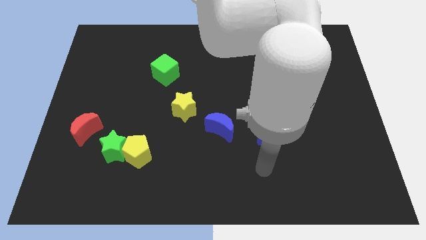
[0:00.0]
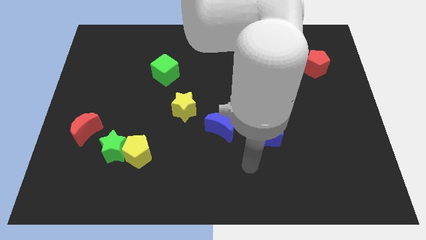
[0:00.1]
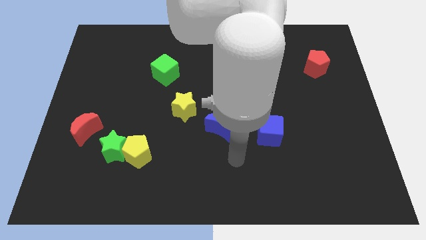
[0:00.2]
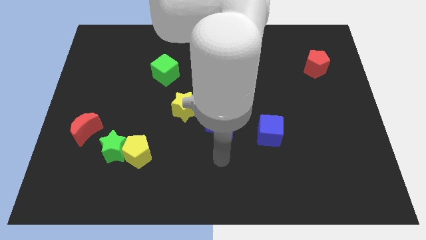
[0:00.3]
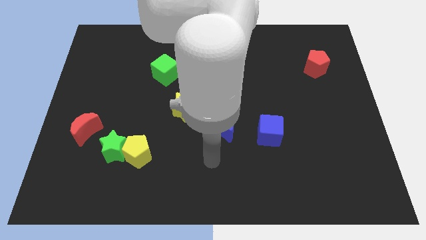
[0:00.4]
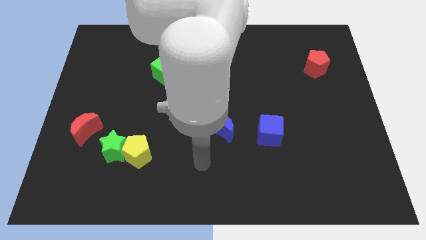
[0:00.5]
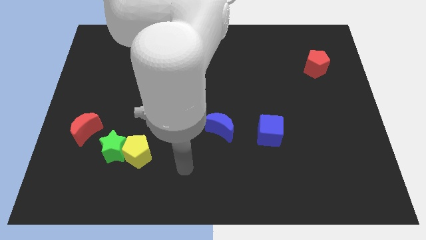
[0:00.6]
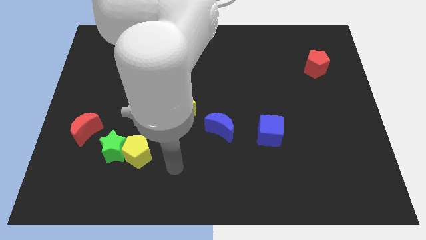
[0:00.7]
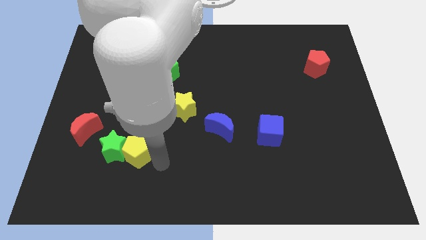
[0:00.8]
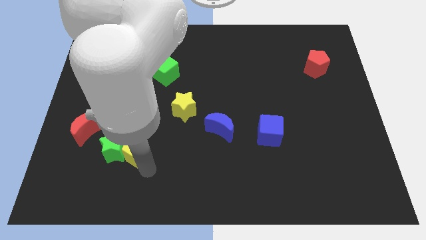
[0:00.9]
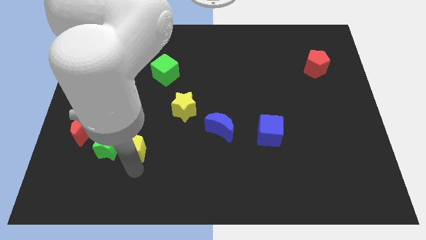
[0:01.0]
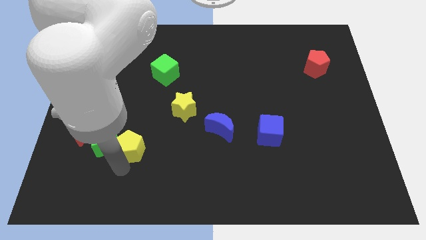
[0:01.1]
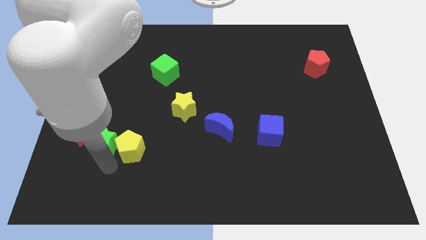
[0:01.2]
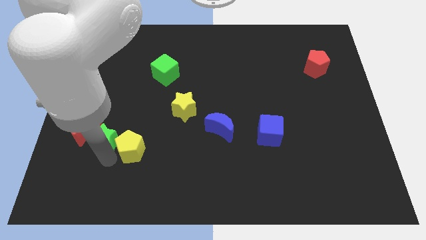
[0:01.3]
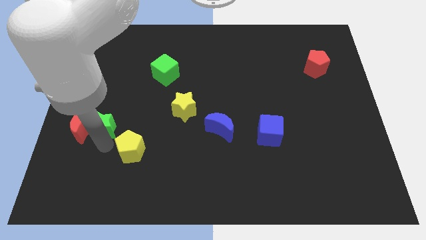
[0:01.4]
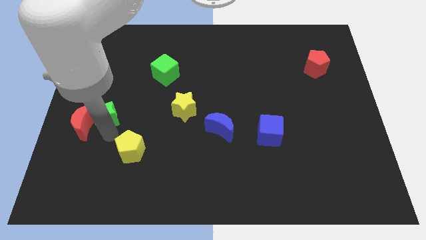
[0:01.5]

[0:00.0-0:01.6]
separate the yellow pentagon from the green star

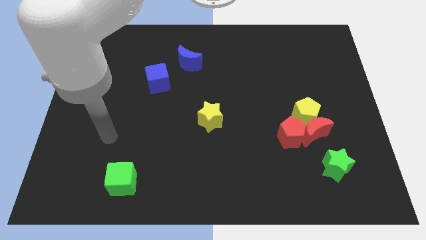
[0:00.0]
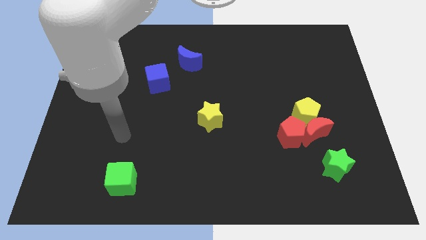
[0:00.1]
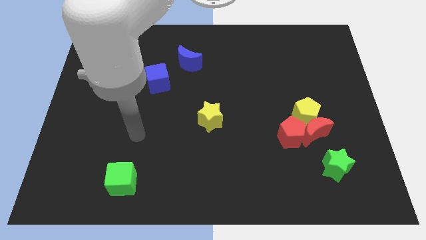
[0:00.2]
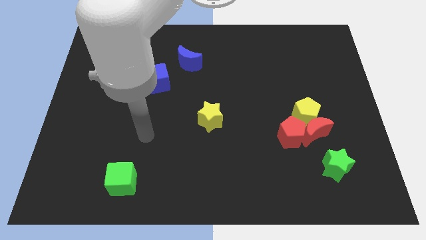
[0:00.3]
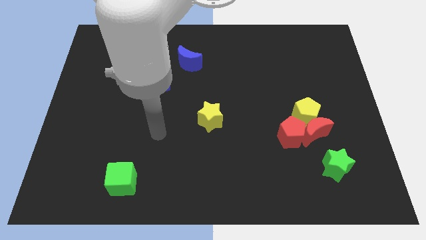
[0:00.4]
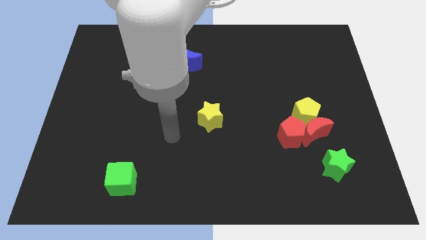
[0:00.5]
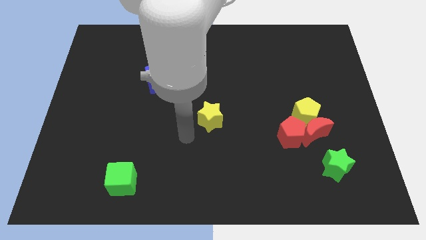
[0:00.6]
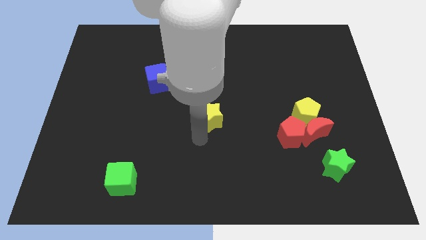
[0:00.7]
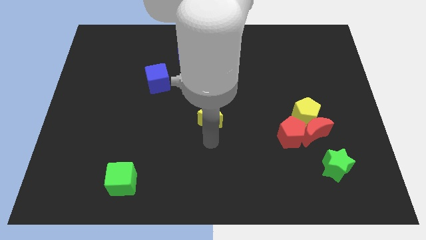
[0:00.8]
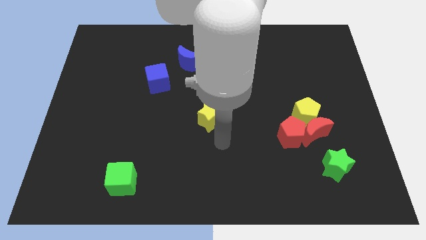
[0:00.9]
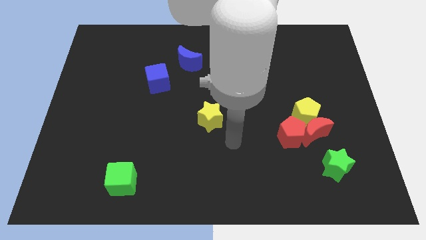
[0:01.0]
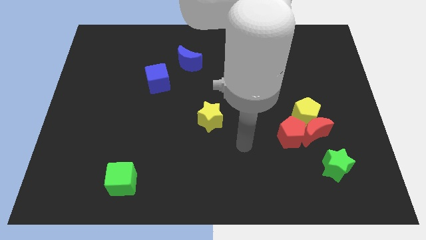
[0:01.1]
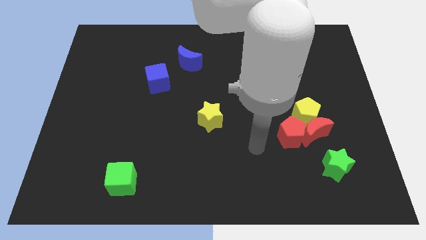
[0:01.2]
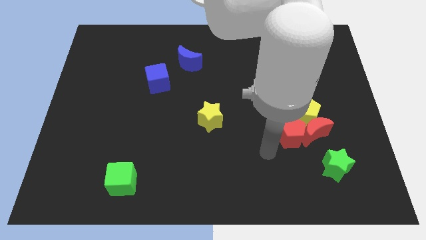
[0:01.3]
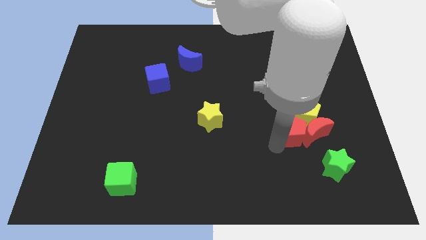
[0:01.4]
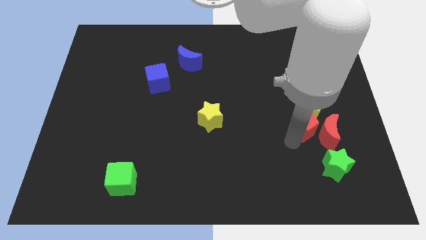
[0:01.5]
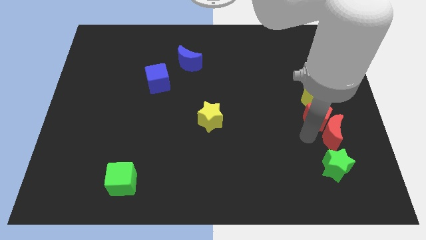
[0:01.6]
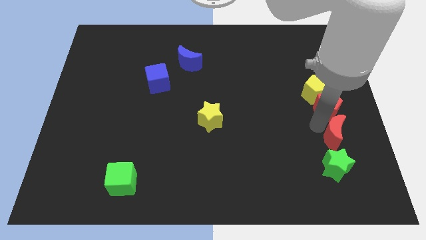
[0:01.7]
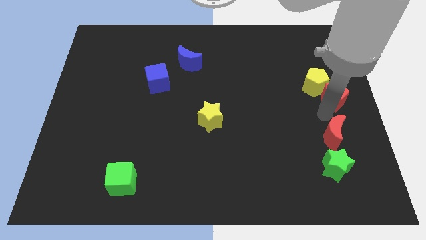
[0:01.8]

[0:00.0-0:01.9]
move the yellow pentagon away from the red moon and red pentagon

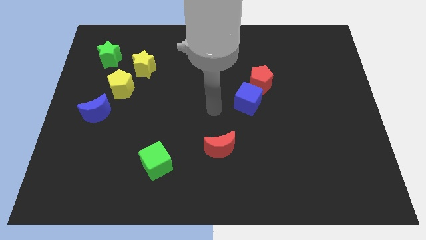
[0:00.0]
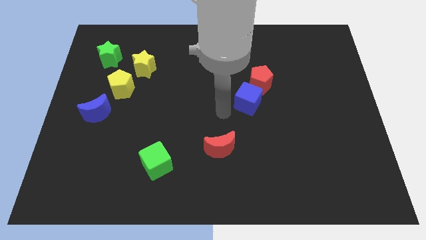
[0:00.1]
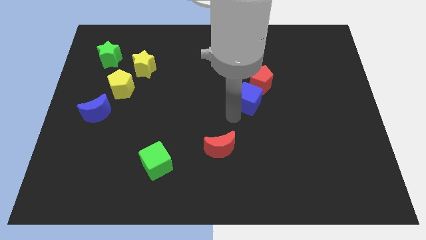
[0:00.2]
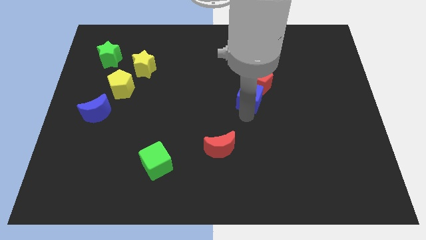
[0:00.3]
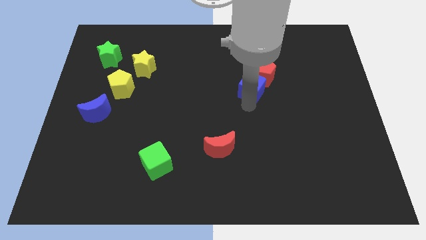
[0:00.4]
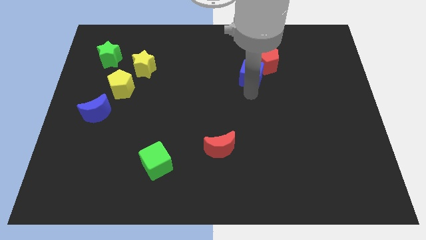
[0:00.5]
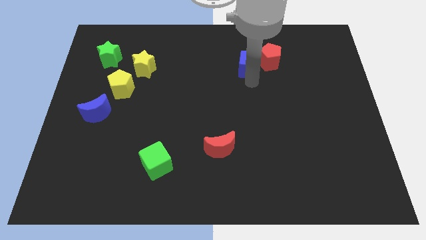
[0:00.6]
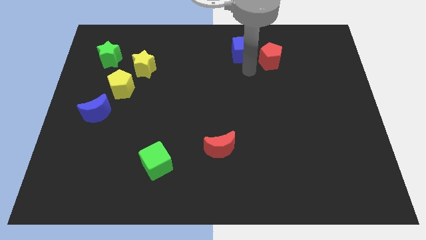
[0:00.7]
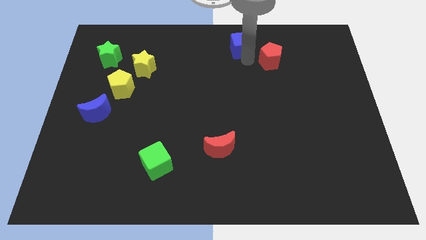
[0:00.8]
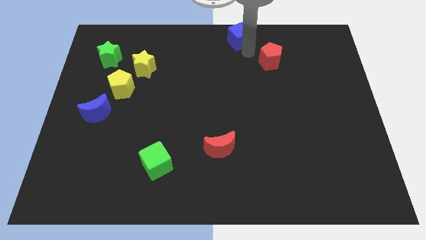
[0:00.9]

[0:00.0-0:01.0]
pull the red pentagon apart from the blue cube

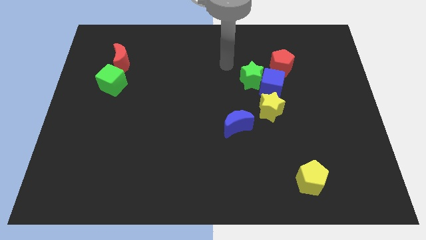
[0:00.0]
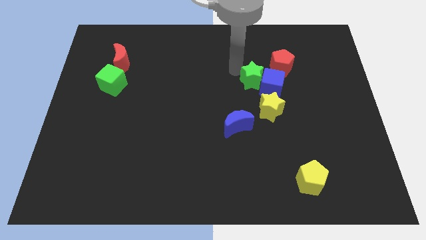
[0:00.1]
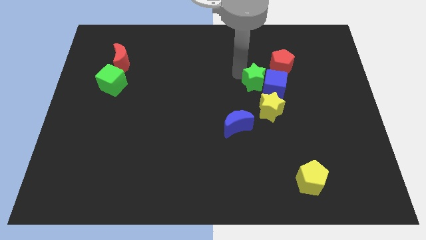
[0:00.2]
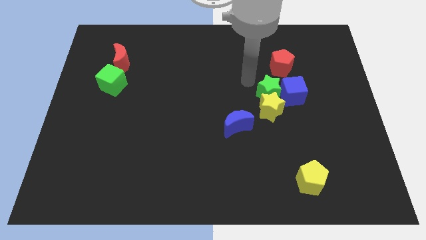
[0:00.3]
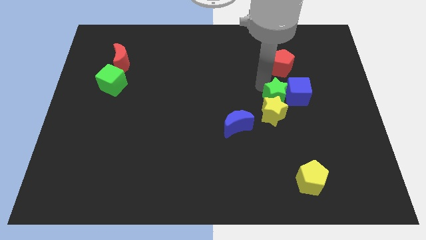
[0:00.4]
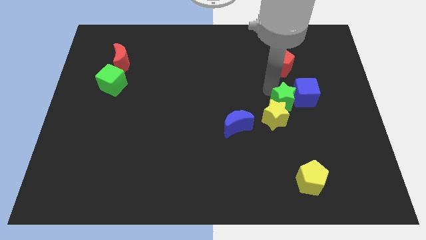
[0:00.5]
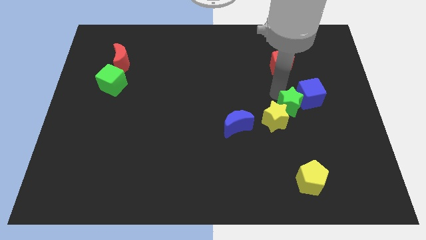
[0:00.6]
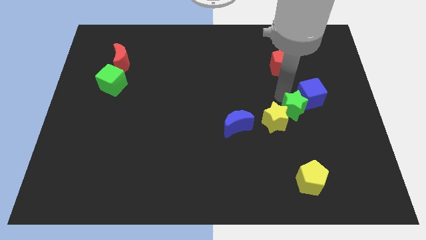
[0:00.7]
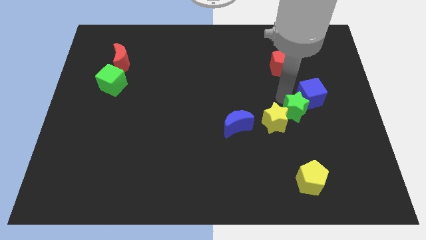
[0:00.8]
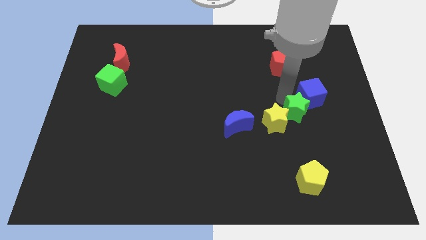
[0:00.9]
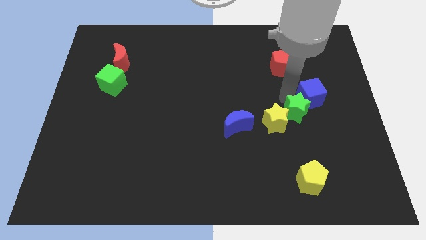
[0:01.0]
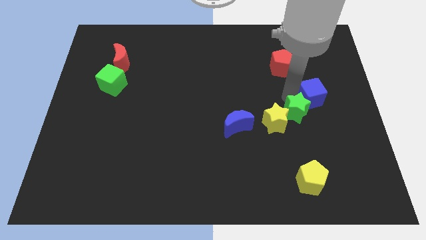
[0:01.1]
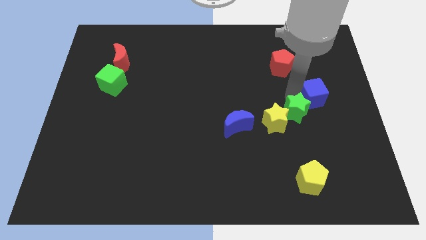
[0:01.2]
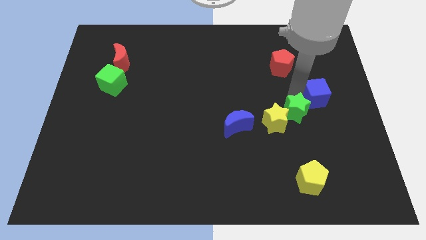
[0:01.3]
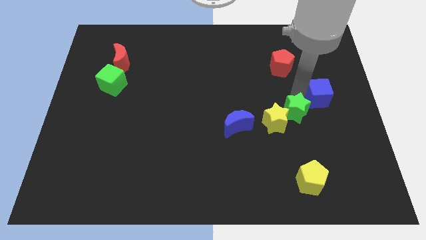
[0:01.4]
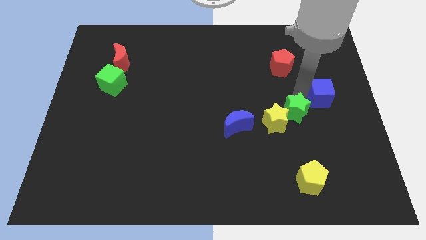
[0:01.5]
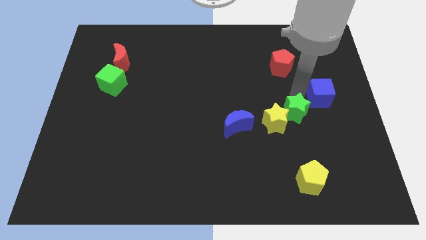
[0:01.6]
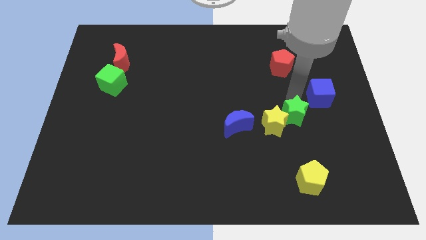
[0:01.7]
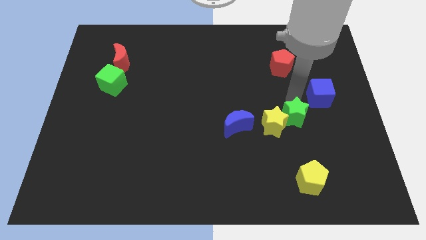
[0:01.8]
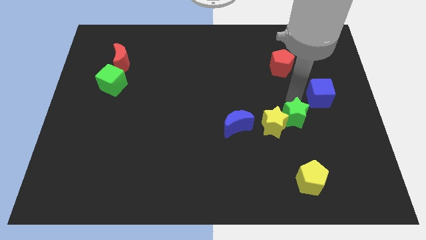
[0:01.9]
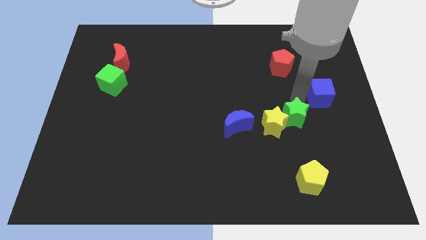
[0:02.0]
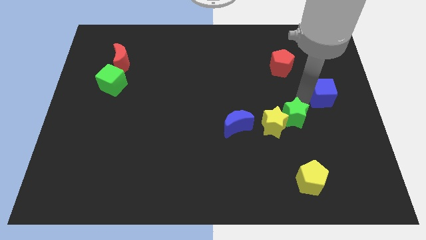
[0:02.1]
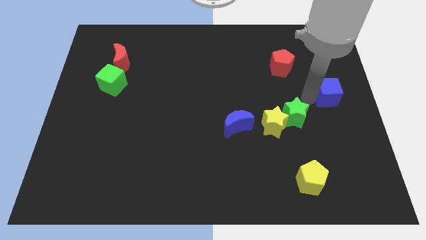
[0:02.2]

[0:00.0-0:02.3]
pull the blue cube apart from the group

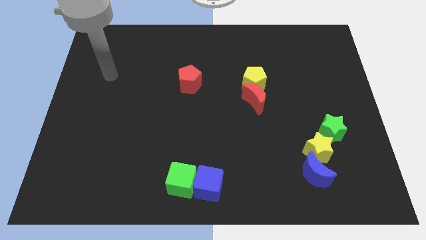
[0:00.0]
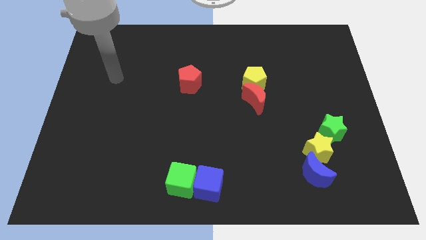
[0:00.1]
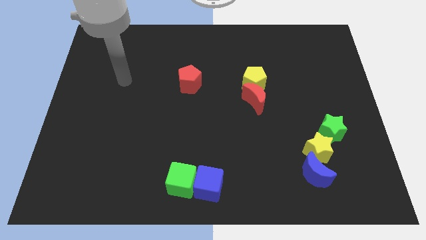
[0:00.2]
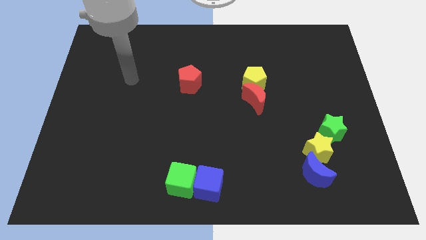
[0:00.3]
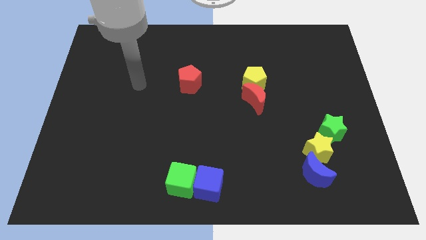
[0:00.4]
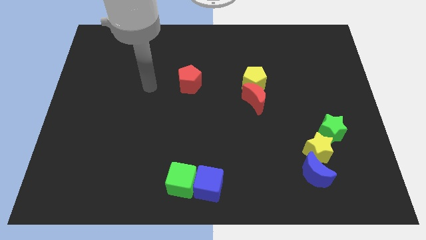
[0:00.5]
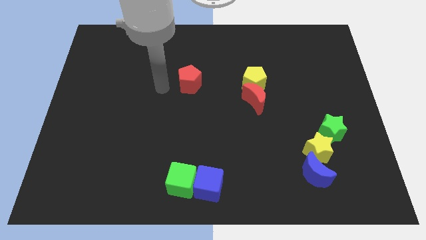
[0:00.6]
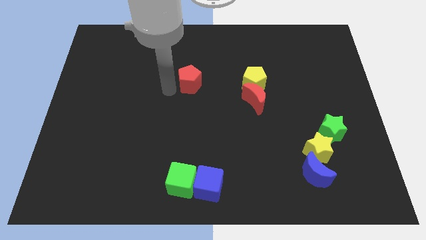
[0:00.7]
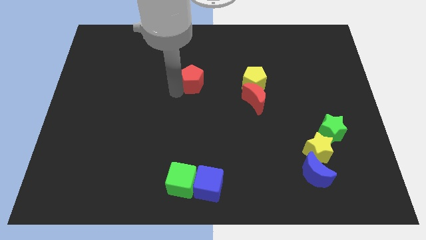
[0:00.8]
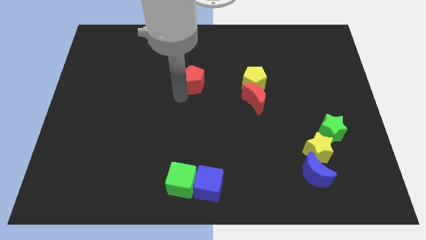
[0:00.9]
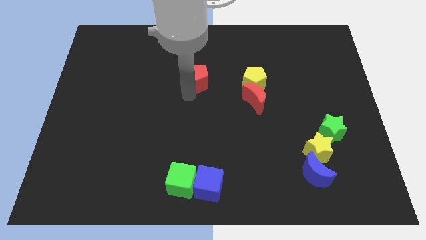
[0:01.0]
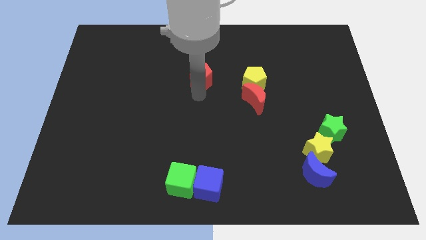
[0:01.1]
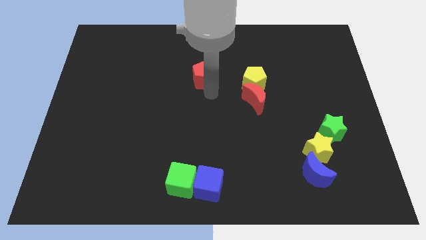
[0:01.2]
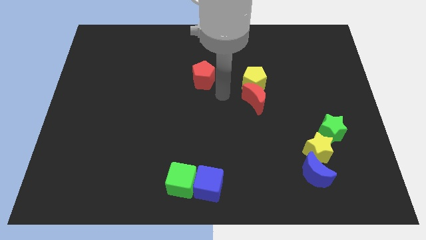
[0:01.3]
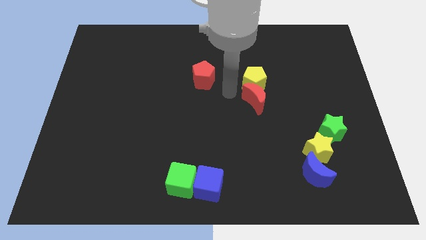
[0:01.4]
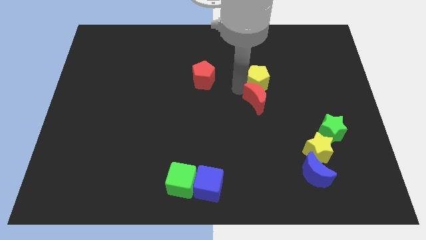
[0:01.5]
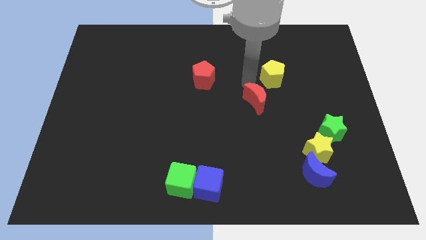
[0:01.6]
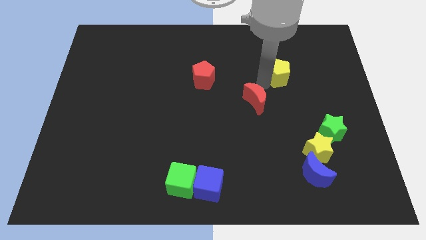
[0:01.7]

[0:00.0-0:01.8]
move the red moon away from the yellow pentagon

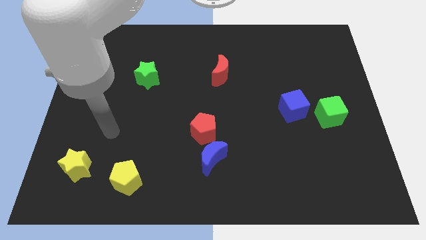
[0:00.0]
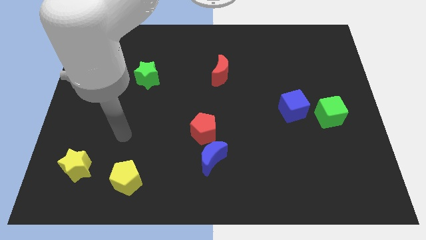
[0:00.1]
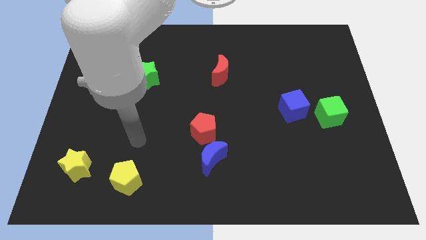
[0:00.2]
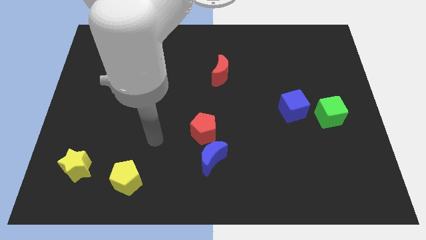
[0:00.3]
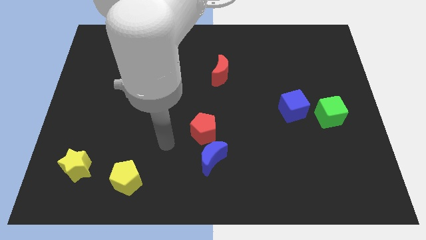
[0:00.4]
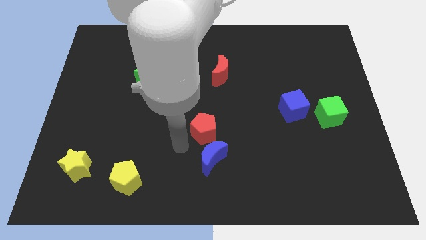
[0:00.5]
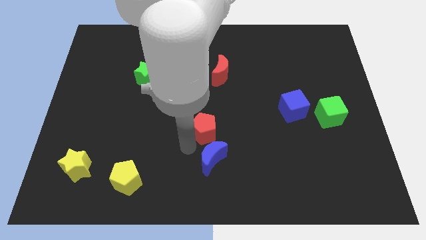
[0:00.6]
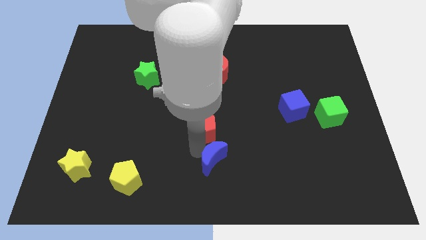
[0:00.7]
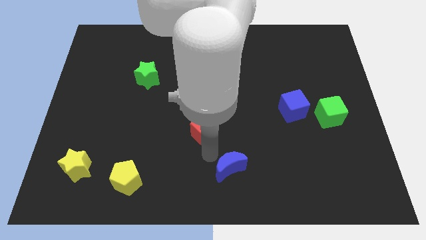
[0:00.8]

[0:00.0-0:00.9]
move the red pentagon away from the blue moon
